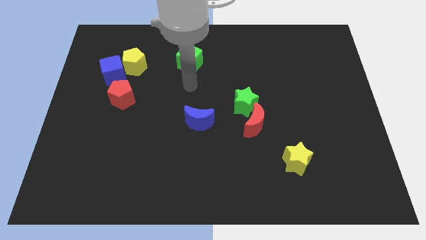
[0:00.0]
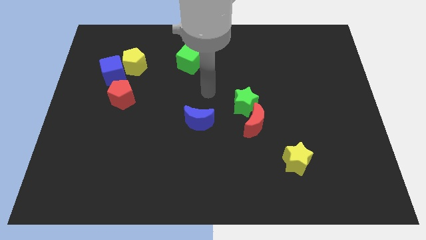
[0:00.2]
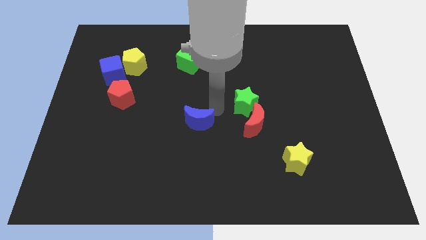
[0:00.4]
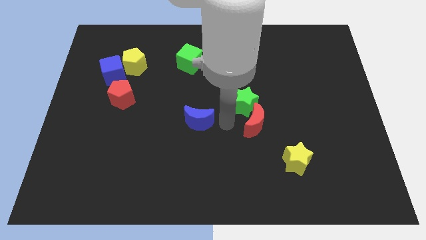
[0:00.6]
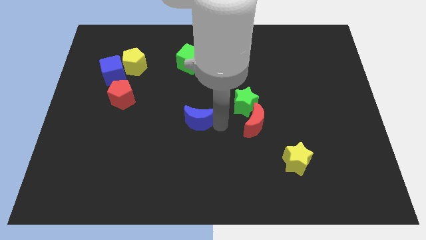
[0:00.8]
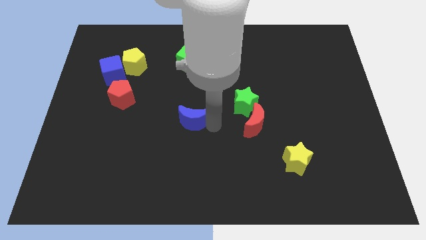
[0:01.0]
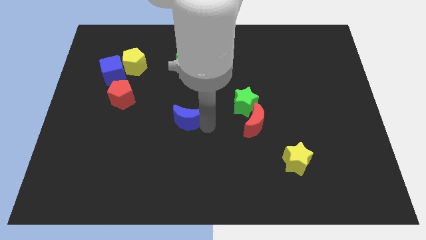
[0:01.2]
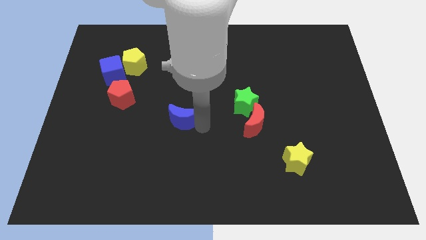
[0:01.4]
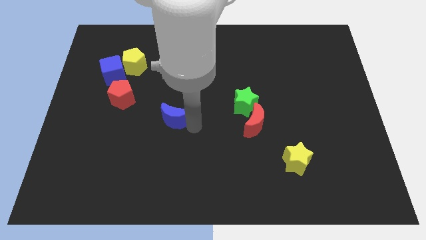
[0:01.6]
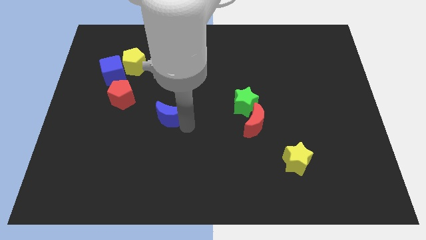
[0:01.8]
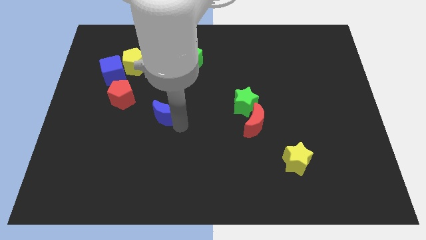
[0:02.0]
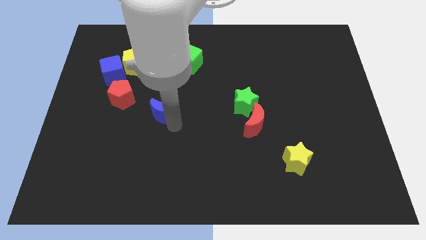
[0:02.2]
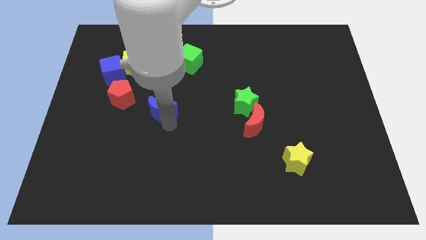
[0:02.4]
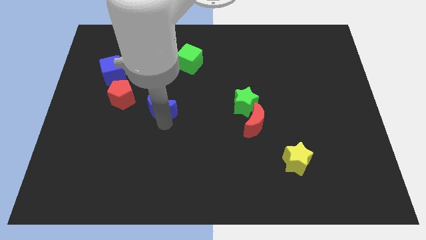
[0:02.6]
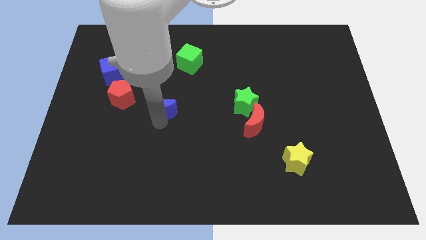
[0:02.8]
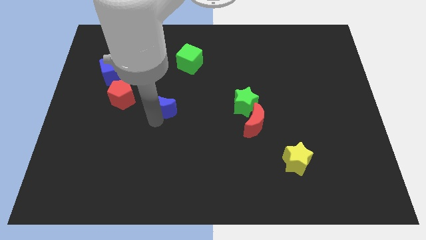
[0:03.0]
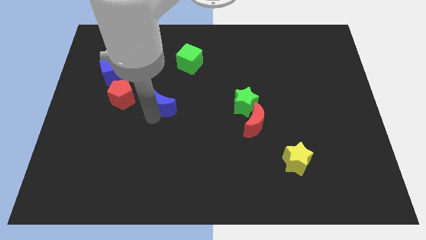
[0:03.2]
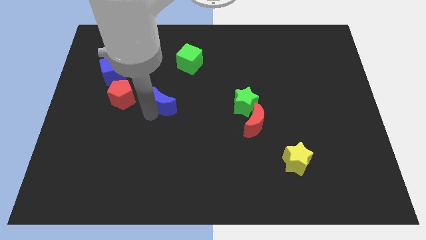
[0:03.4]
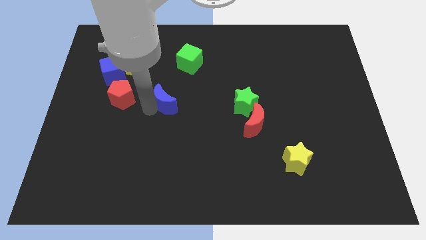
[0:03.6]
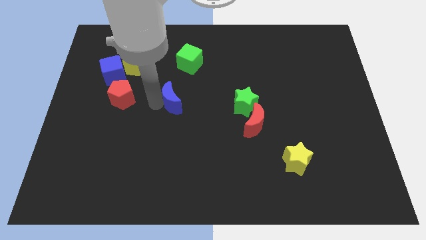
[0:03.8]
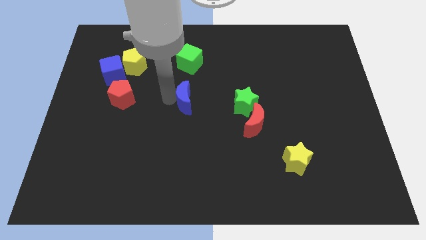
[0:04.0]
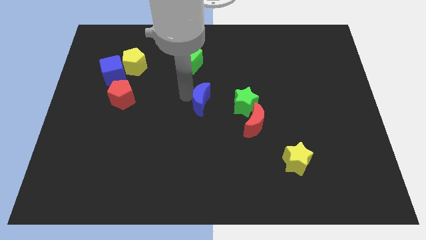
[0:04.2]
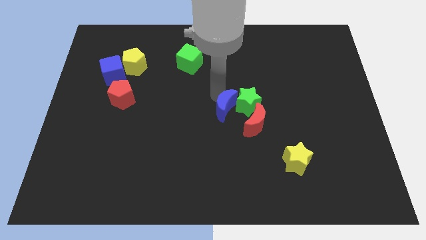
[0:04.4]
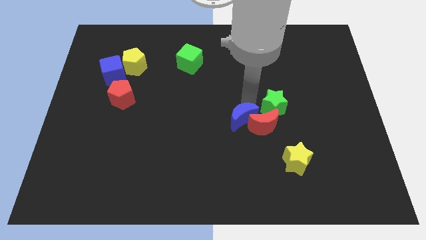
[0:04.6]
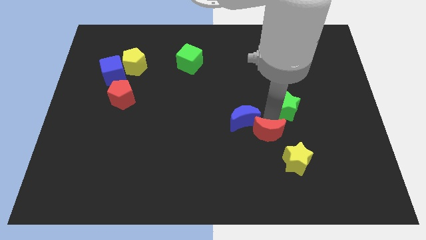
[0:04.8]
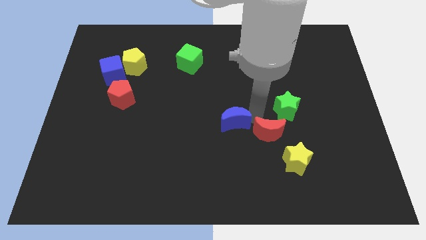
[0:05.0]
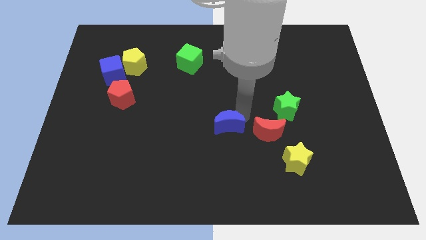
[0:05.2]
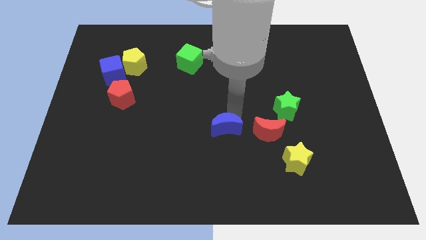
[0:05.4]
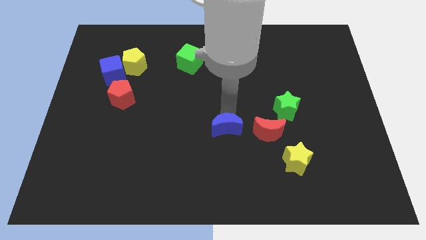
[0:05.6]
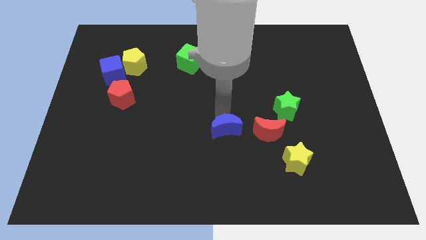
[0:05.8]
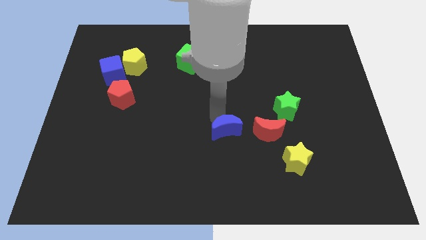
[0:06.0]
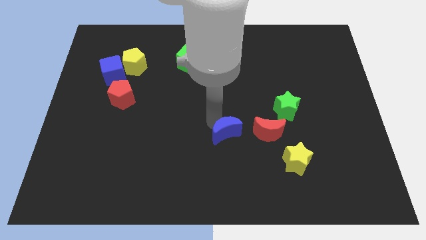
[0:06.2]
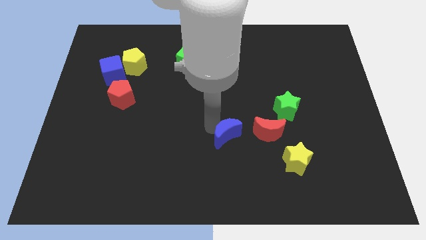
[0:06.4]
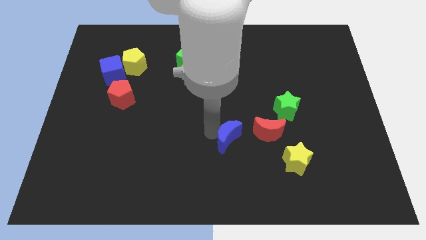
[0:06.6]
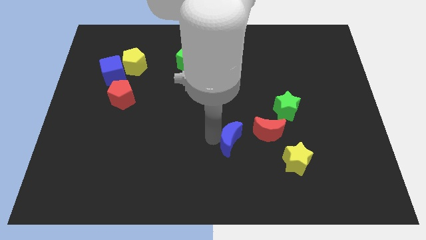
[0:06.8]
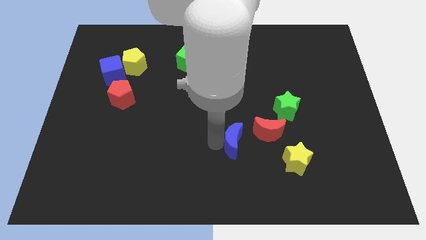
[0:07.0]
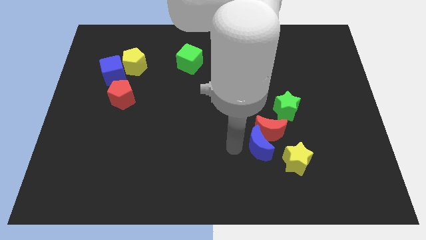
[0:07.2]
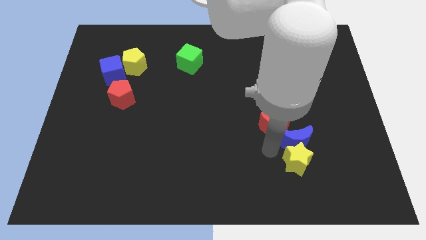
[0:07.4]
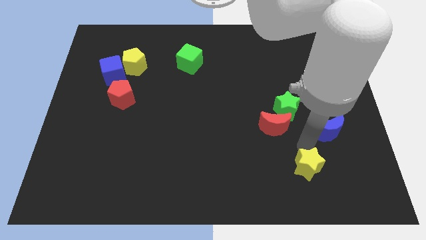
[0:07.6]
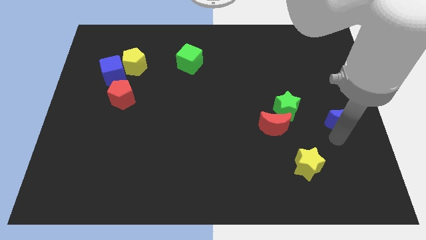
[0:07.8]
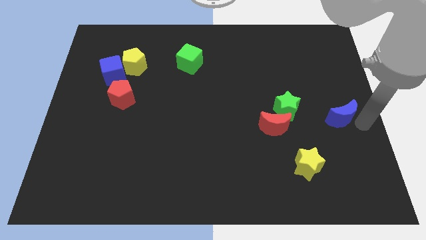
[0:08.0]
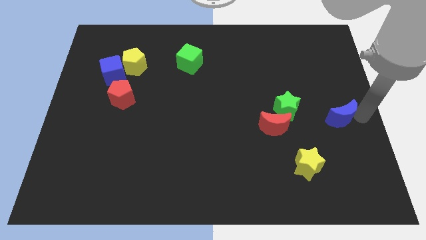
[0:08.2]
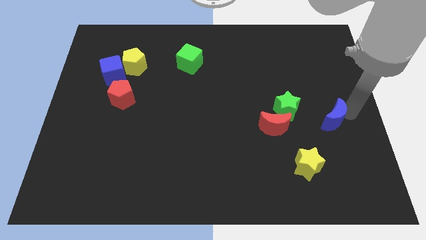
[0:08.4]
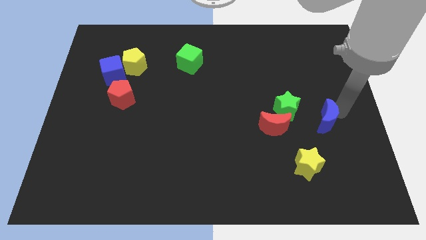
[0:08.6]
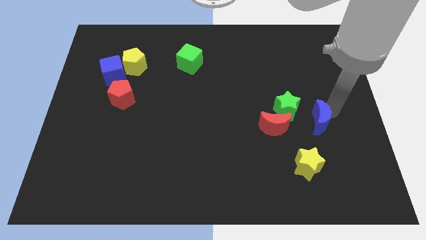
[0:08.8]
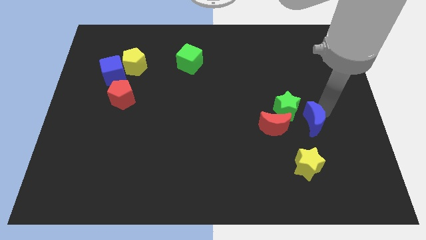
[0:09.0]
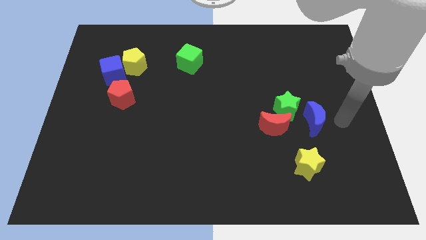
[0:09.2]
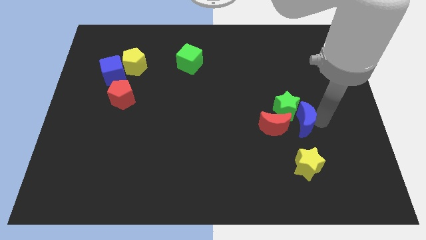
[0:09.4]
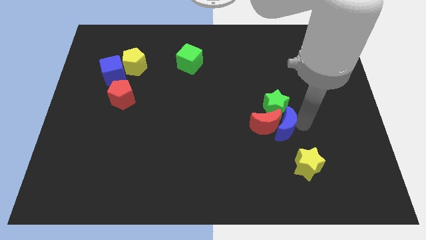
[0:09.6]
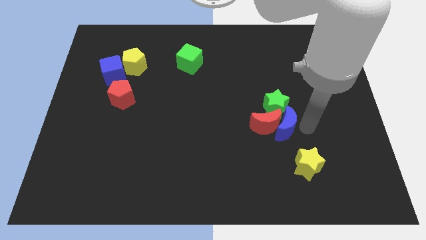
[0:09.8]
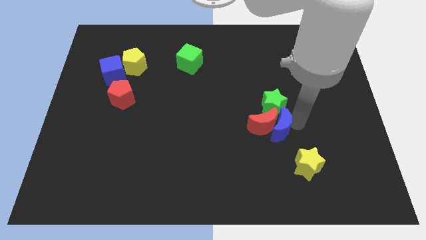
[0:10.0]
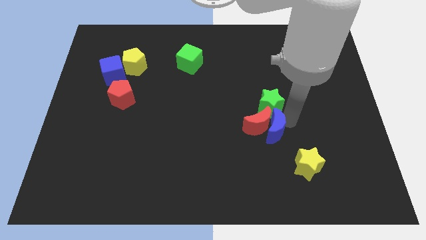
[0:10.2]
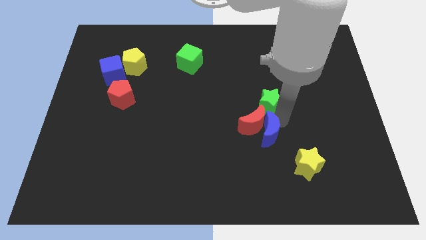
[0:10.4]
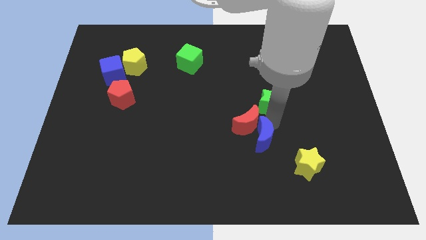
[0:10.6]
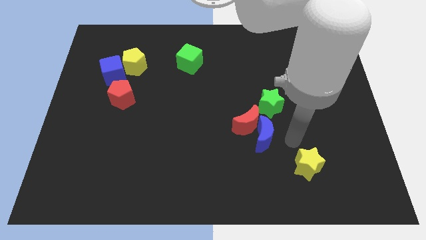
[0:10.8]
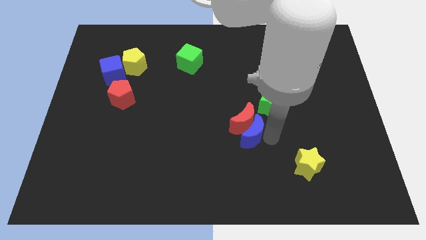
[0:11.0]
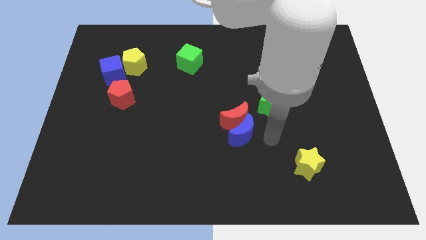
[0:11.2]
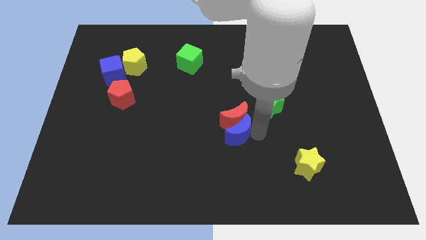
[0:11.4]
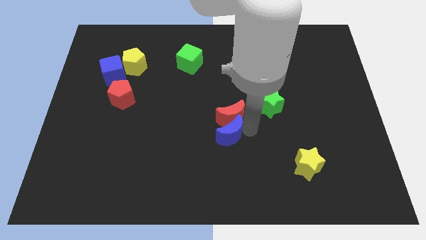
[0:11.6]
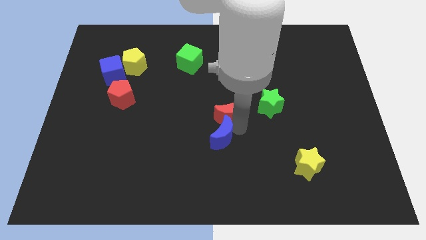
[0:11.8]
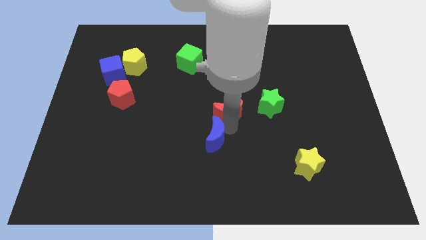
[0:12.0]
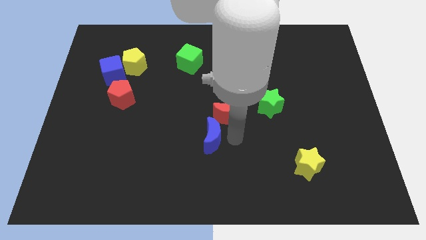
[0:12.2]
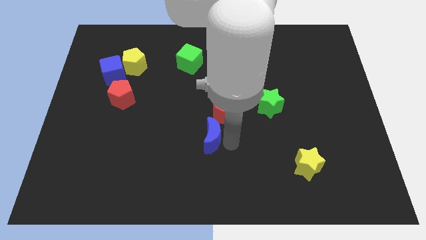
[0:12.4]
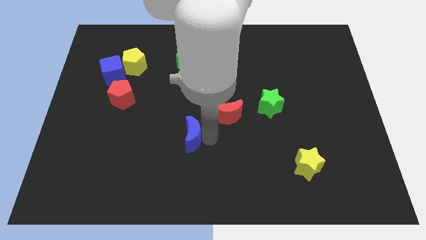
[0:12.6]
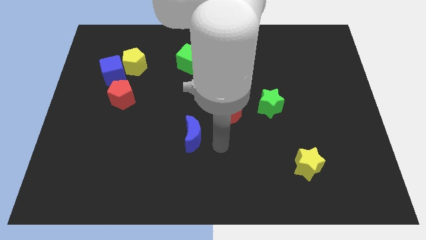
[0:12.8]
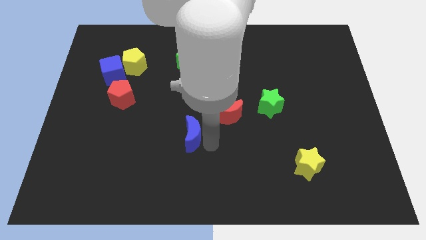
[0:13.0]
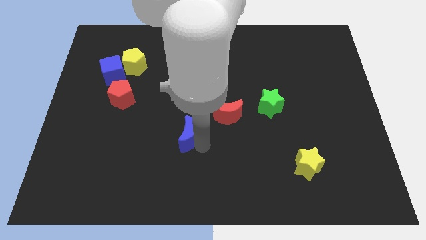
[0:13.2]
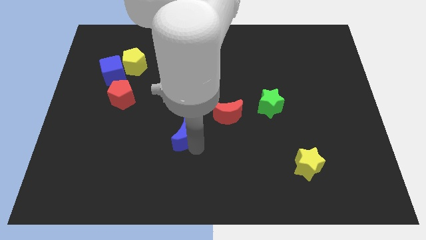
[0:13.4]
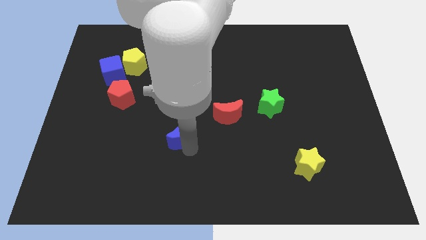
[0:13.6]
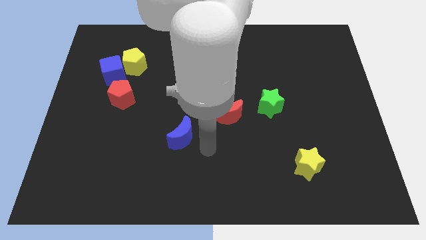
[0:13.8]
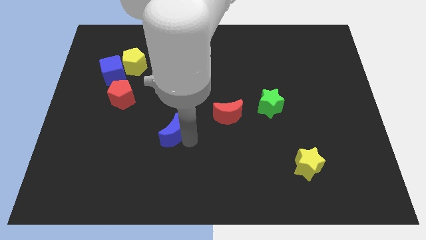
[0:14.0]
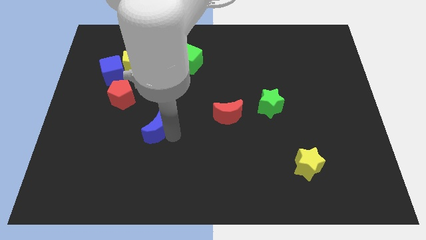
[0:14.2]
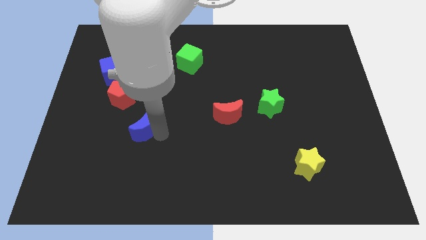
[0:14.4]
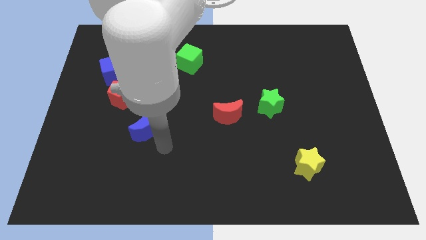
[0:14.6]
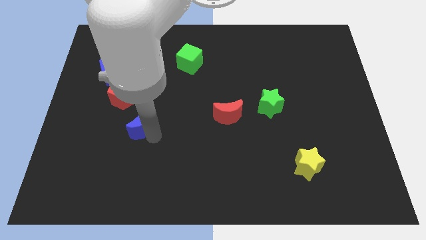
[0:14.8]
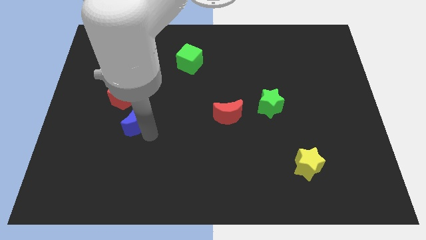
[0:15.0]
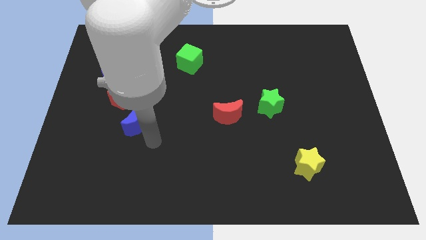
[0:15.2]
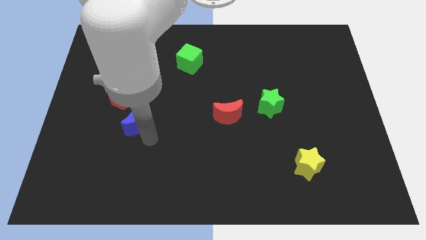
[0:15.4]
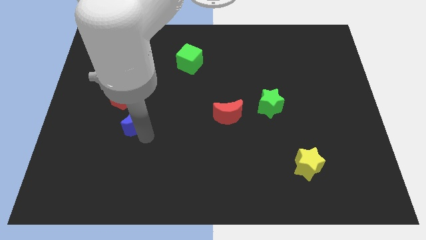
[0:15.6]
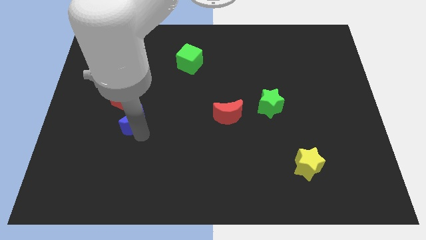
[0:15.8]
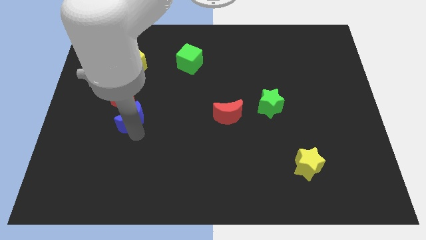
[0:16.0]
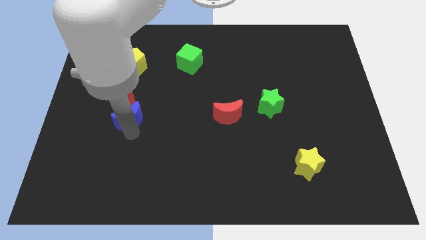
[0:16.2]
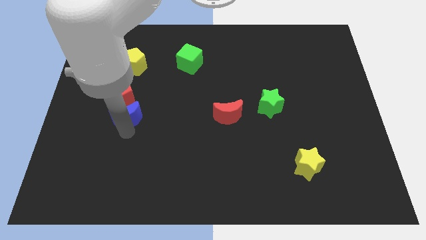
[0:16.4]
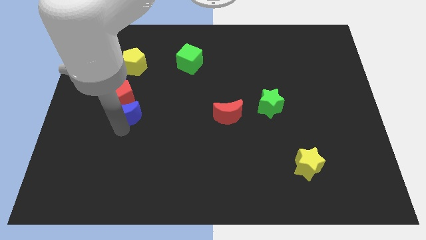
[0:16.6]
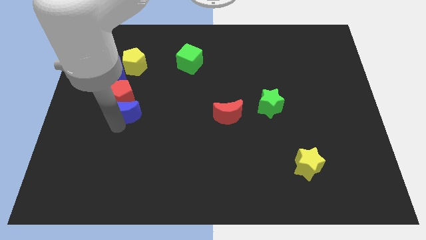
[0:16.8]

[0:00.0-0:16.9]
slide the blue moon below the yellow pentagon
